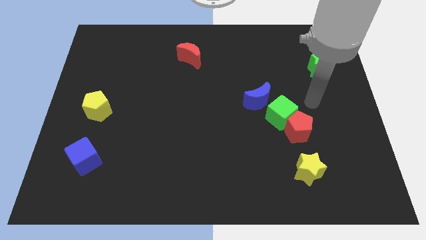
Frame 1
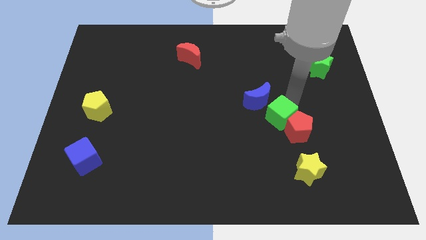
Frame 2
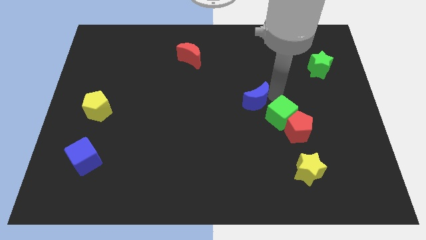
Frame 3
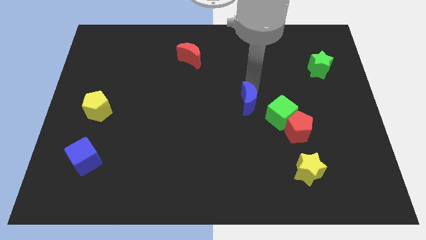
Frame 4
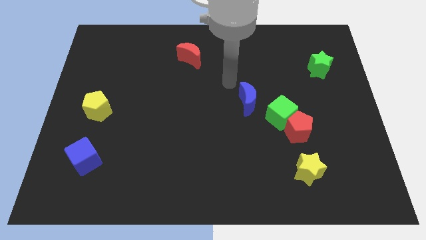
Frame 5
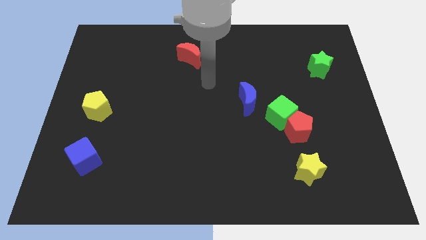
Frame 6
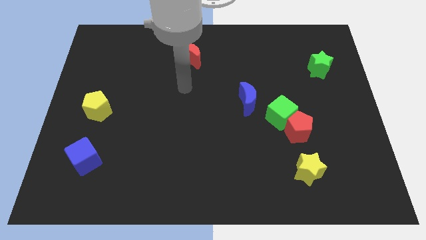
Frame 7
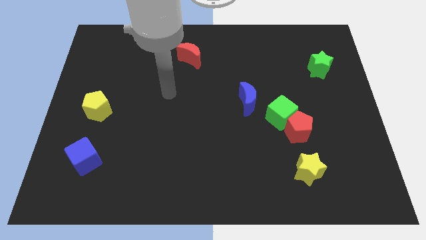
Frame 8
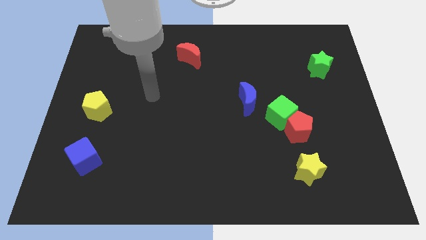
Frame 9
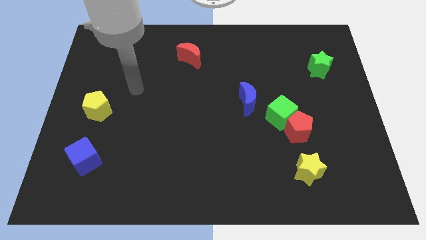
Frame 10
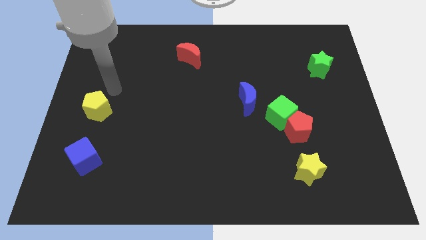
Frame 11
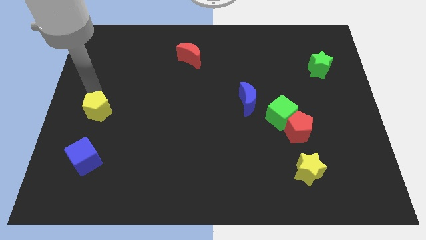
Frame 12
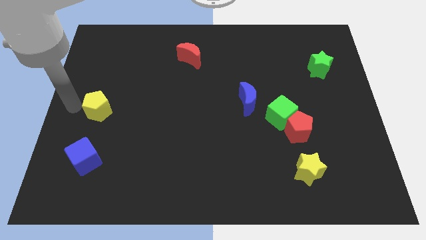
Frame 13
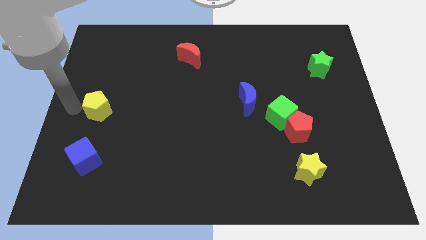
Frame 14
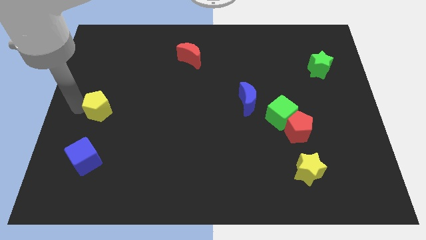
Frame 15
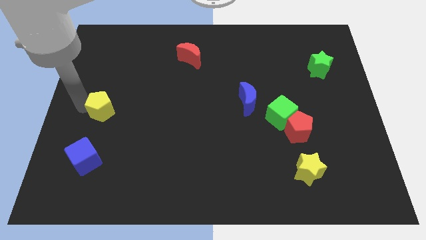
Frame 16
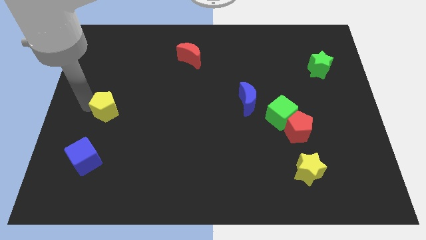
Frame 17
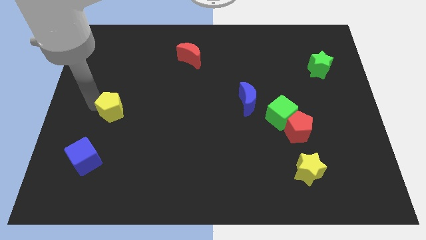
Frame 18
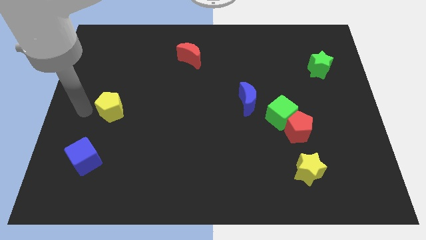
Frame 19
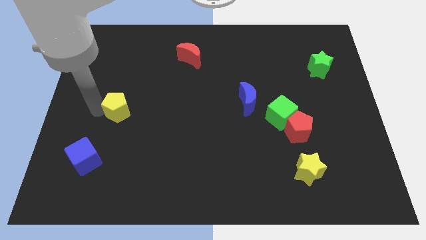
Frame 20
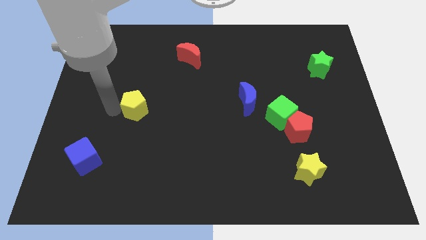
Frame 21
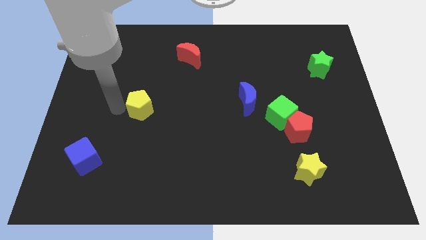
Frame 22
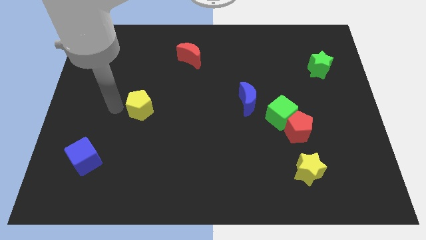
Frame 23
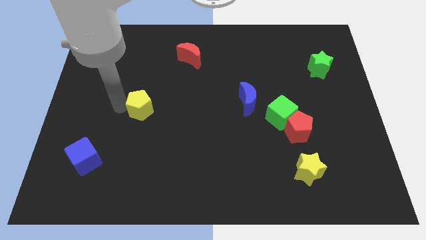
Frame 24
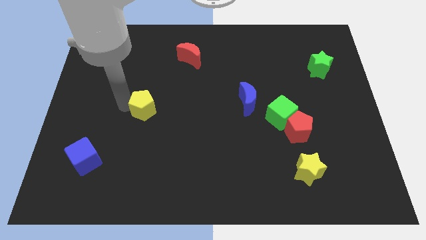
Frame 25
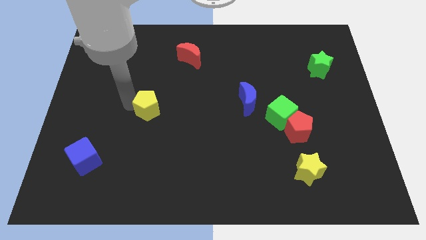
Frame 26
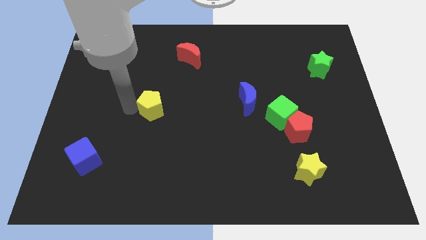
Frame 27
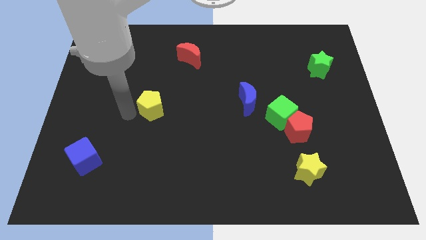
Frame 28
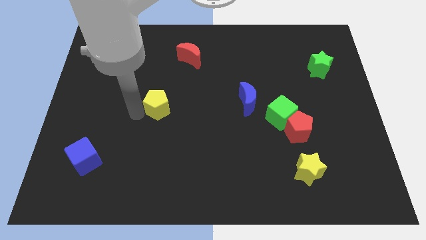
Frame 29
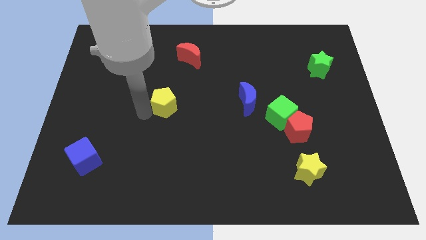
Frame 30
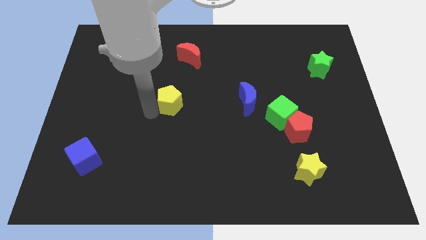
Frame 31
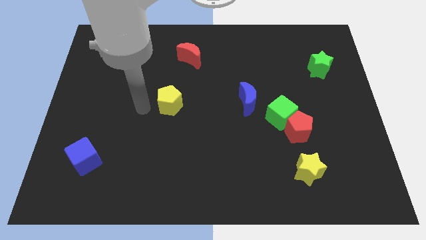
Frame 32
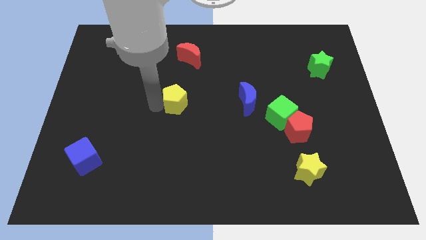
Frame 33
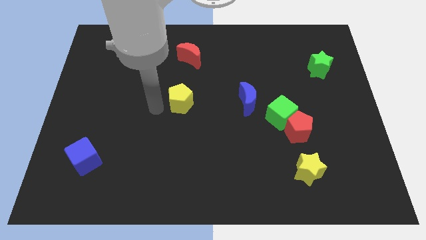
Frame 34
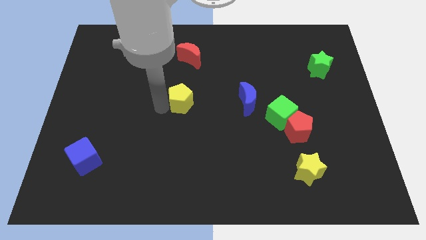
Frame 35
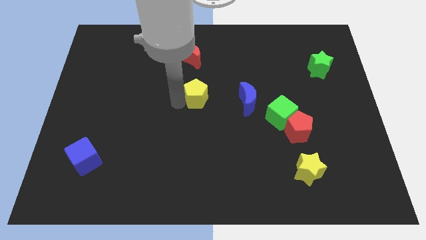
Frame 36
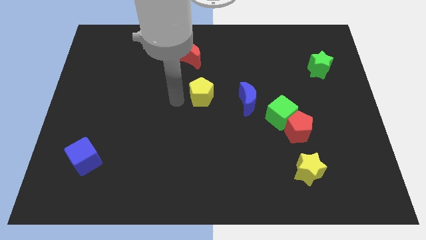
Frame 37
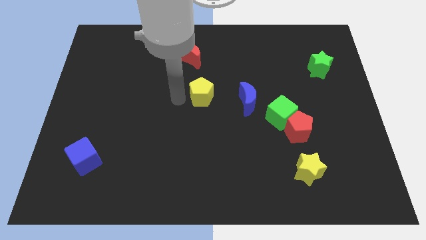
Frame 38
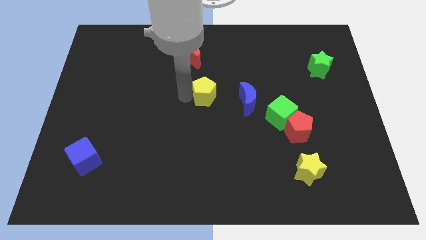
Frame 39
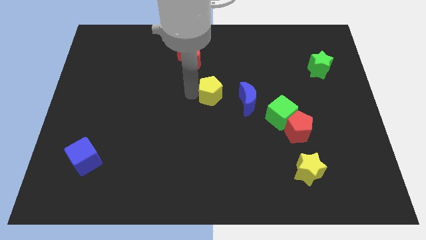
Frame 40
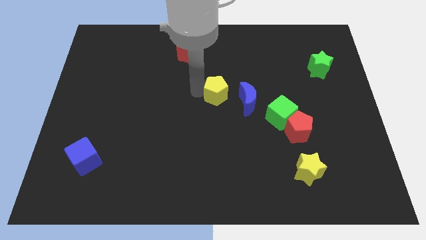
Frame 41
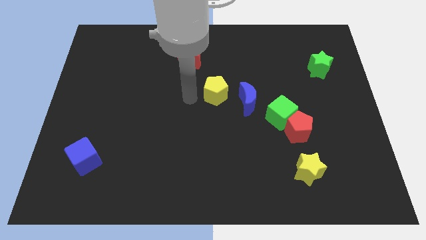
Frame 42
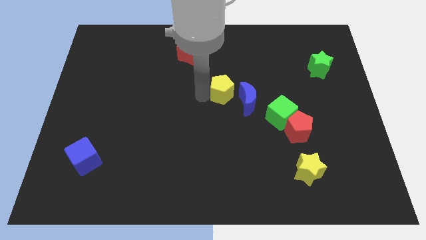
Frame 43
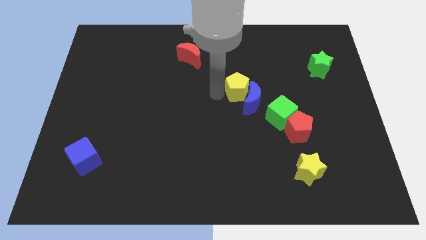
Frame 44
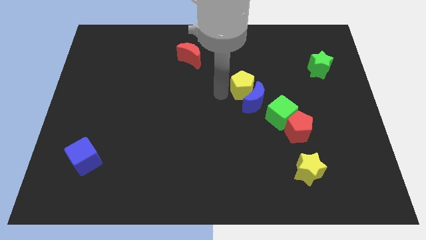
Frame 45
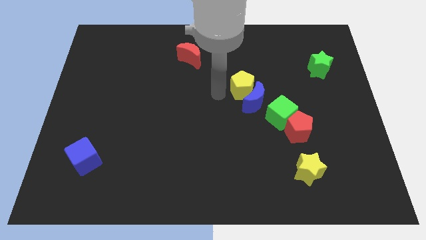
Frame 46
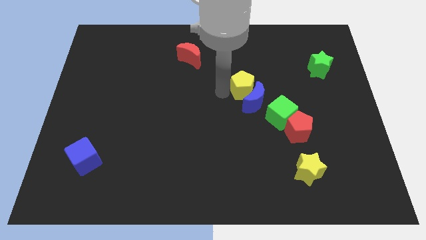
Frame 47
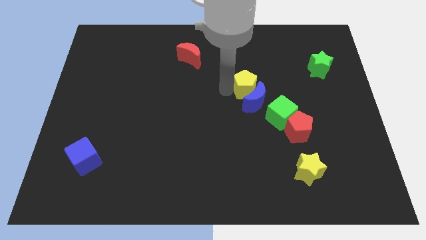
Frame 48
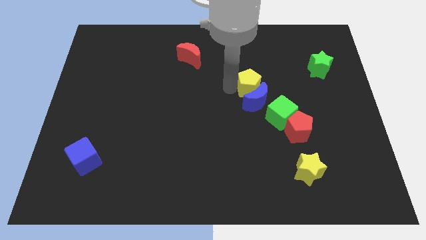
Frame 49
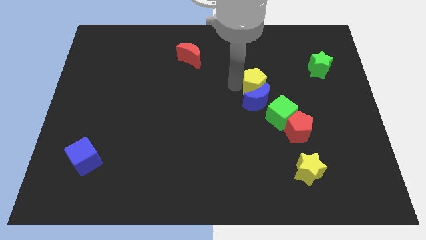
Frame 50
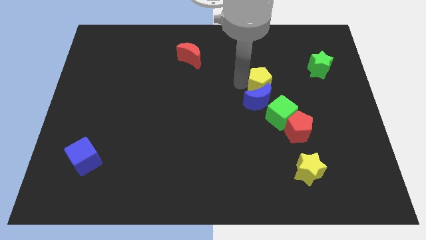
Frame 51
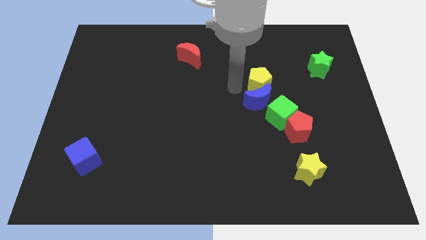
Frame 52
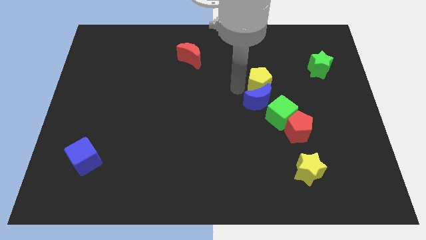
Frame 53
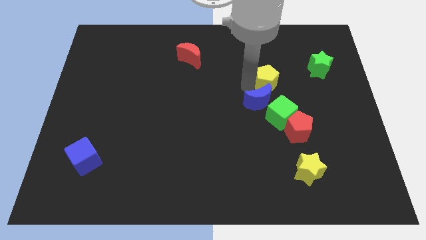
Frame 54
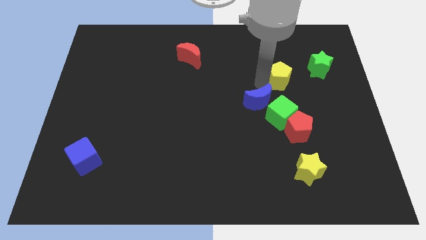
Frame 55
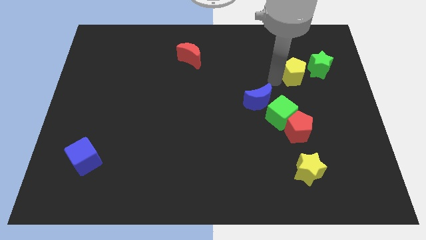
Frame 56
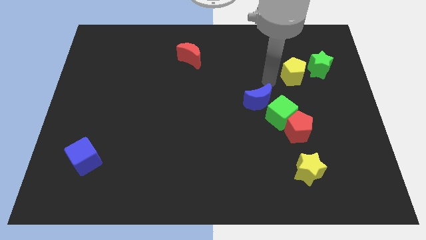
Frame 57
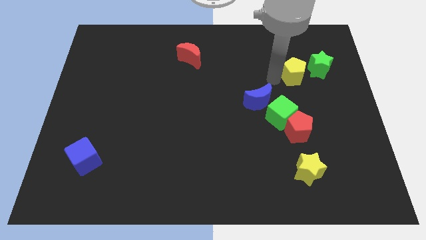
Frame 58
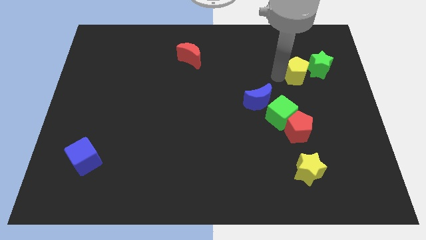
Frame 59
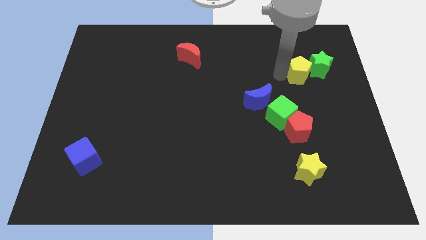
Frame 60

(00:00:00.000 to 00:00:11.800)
move the yellow pentagon close to the green star

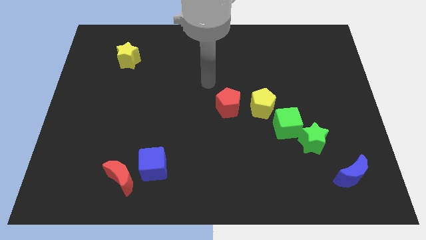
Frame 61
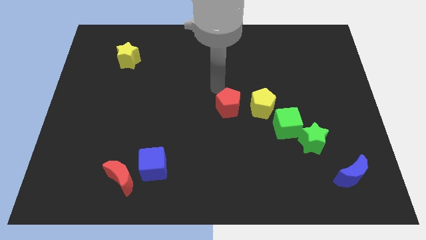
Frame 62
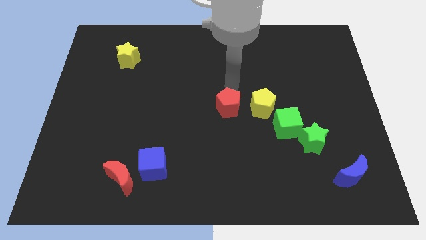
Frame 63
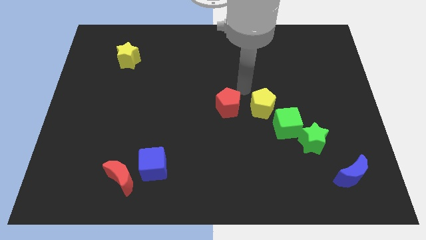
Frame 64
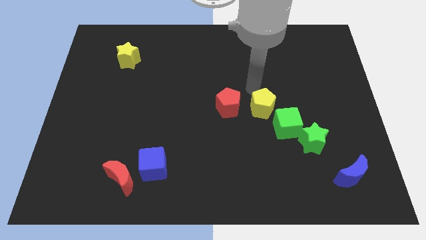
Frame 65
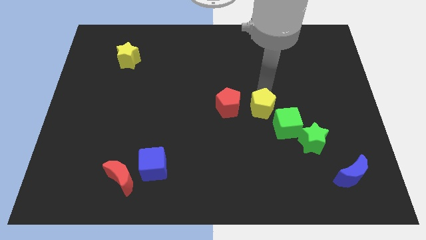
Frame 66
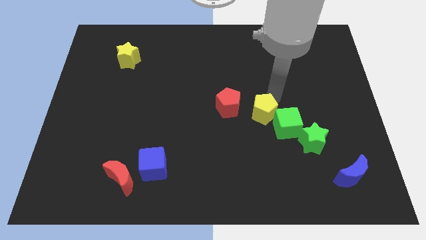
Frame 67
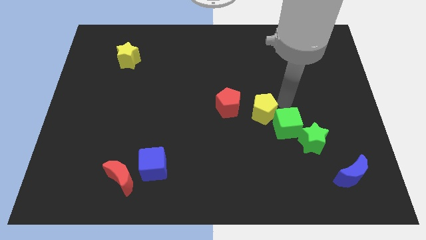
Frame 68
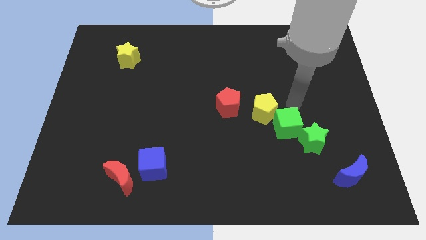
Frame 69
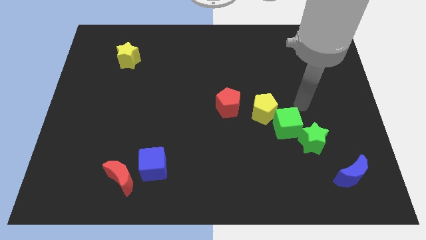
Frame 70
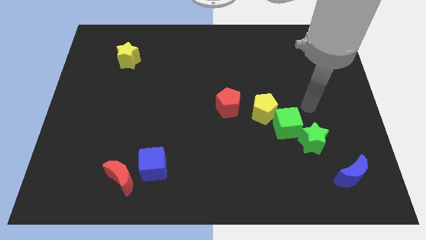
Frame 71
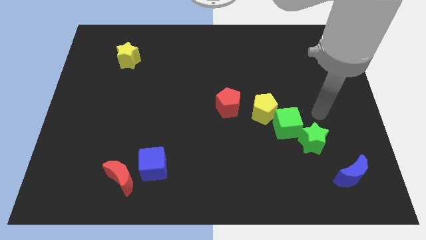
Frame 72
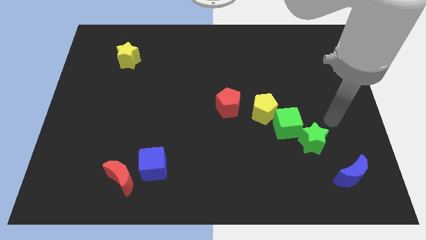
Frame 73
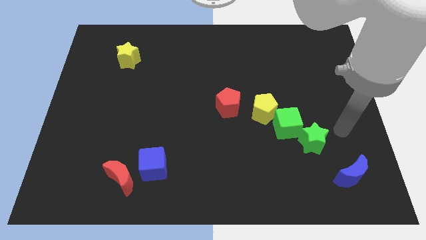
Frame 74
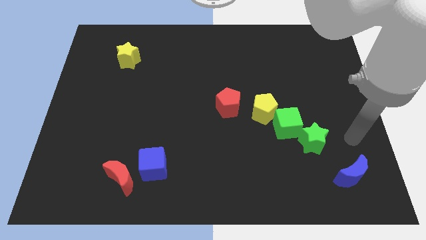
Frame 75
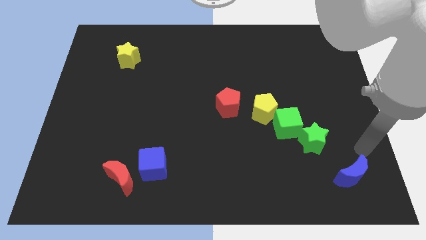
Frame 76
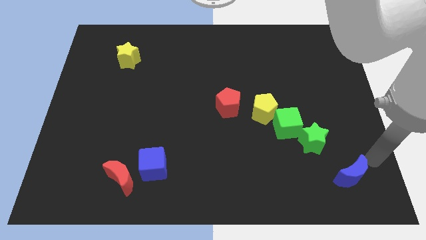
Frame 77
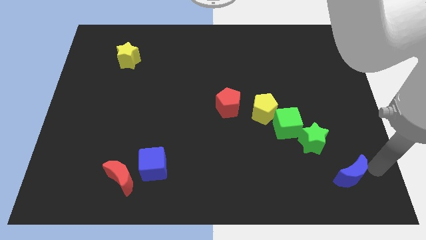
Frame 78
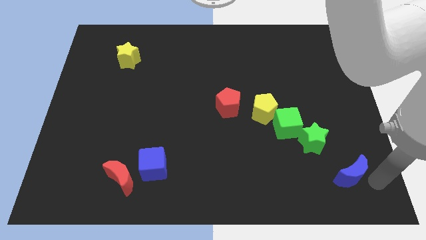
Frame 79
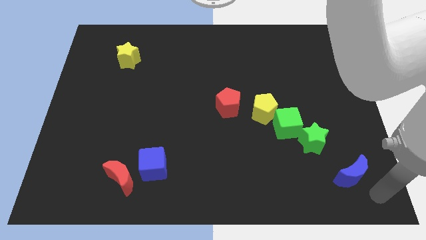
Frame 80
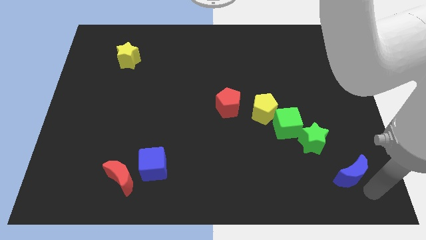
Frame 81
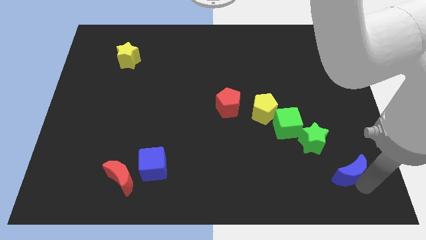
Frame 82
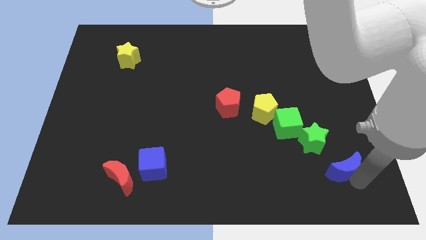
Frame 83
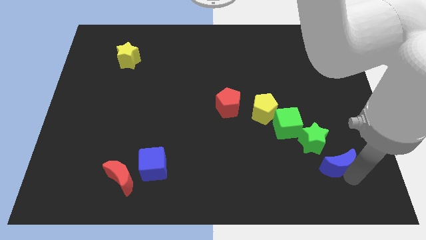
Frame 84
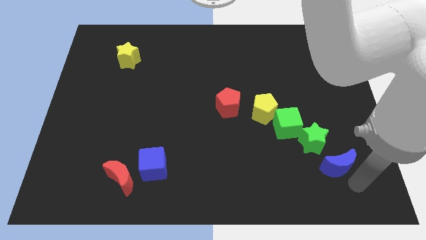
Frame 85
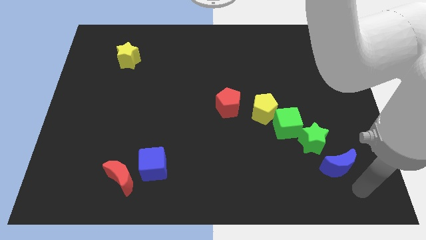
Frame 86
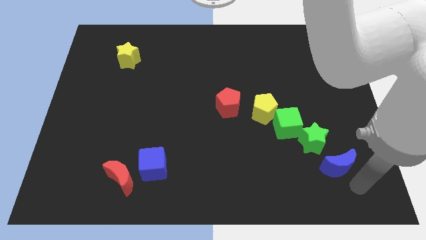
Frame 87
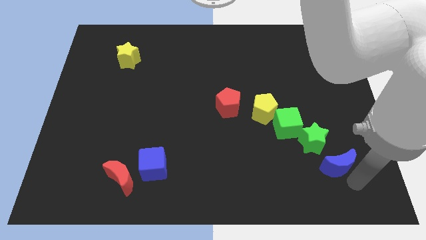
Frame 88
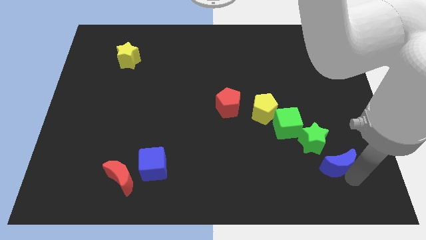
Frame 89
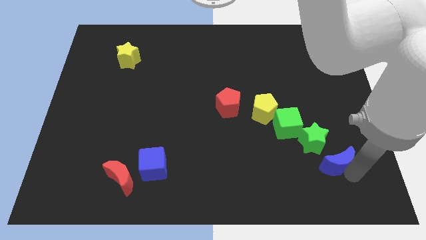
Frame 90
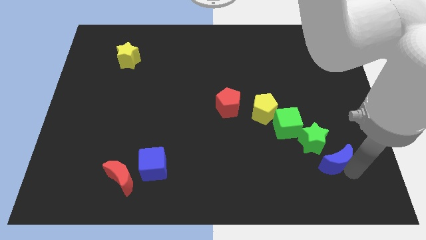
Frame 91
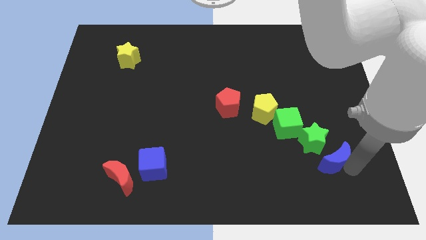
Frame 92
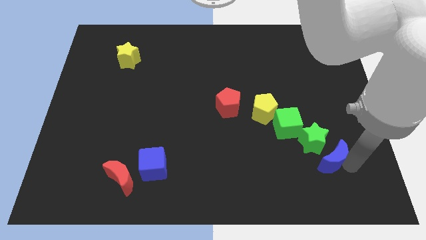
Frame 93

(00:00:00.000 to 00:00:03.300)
put the blue moon towards the green star
